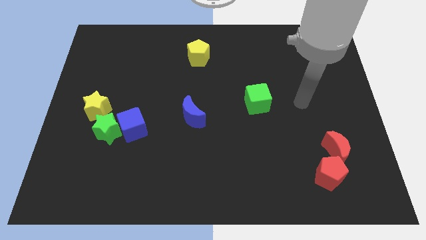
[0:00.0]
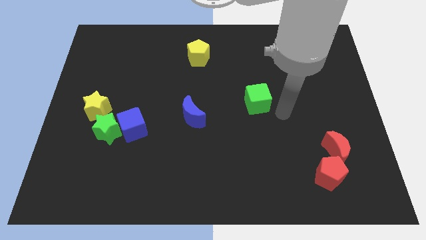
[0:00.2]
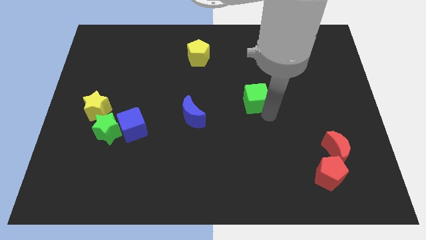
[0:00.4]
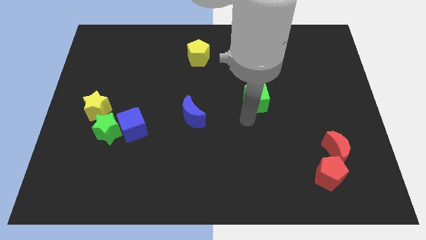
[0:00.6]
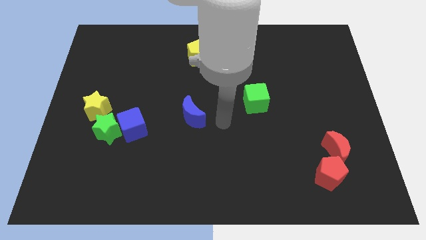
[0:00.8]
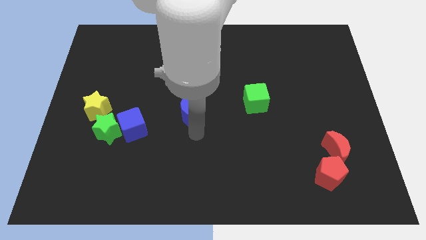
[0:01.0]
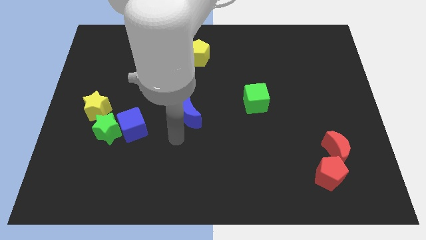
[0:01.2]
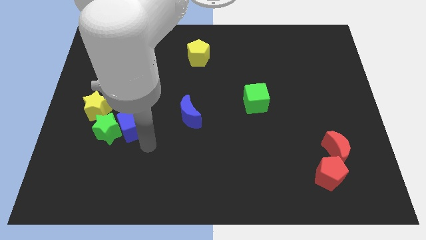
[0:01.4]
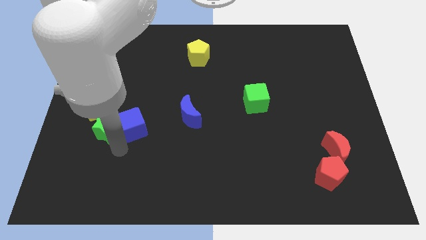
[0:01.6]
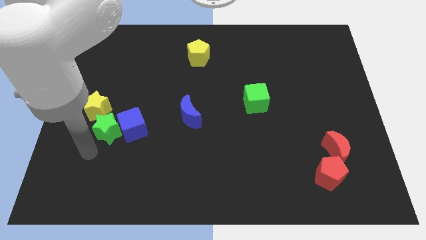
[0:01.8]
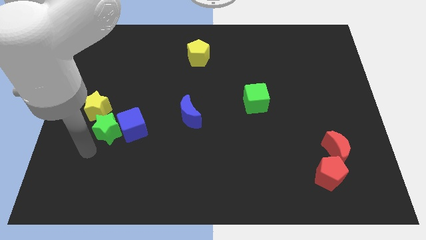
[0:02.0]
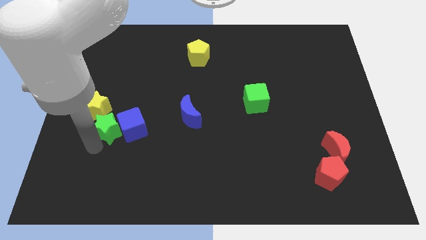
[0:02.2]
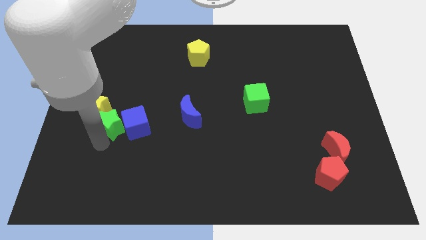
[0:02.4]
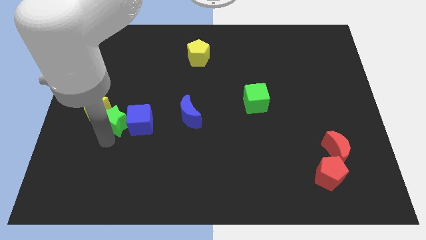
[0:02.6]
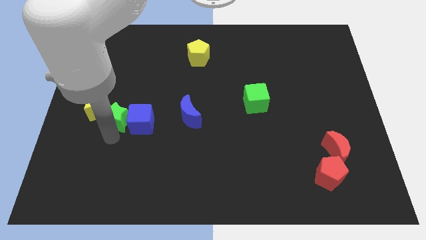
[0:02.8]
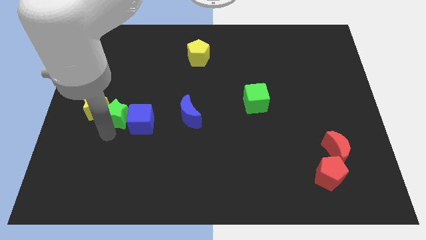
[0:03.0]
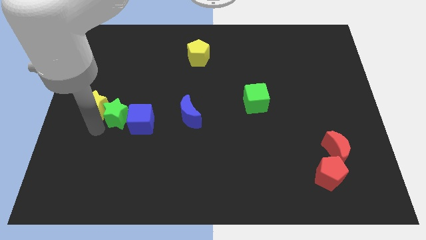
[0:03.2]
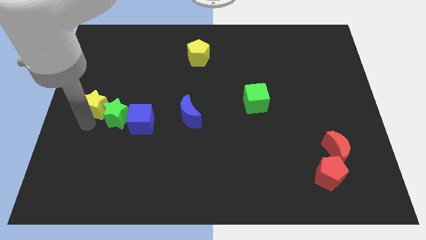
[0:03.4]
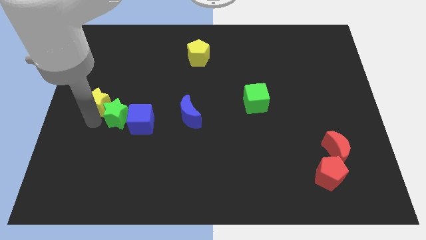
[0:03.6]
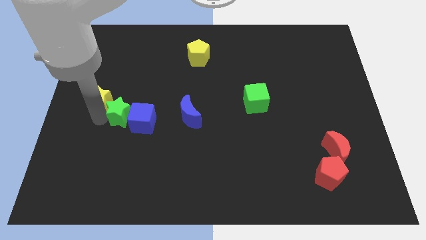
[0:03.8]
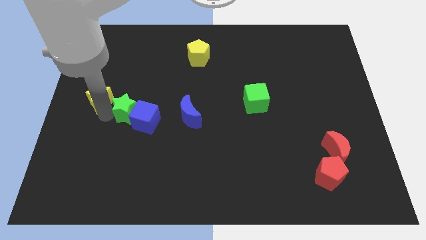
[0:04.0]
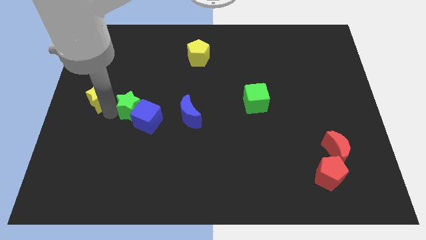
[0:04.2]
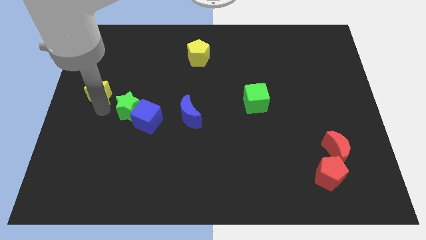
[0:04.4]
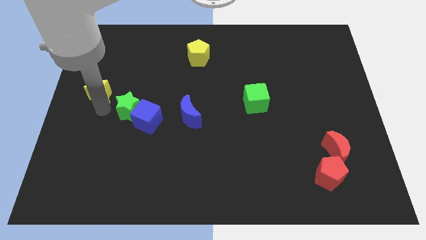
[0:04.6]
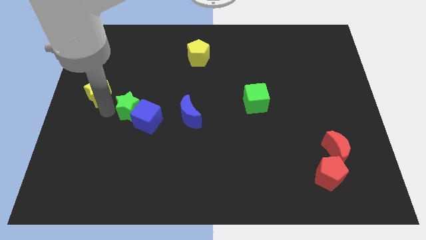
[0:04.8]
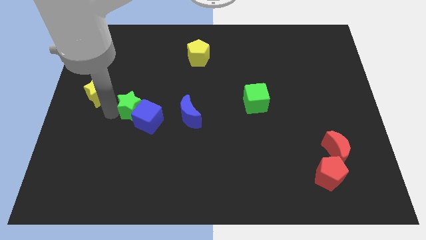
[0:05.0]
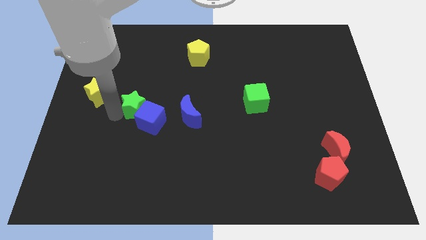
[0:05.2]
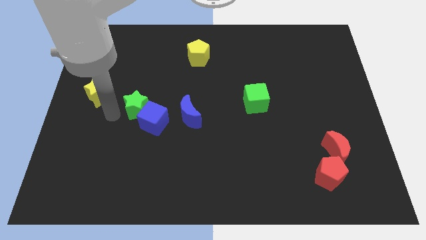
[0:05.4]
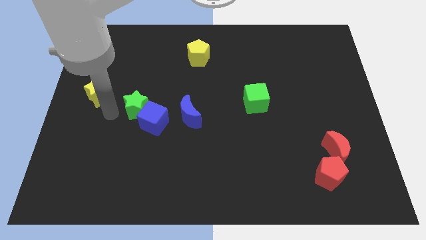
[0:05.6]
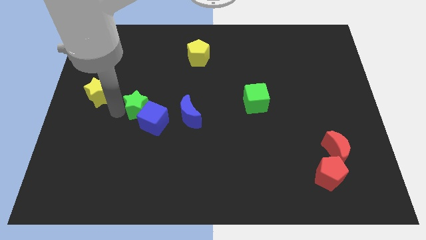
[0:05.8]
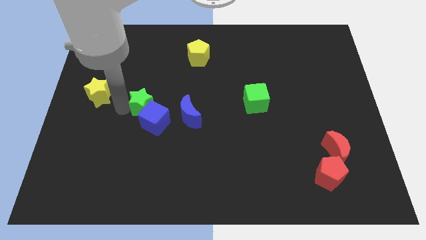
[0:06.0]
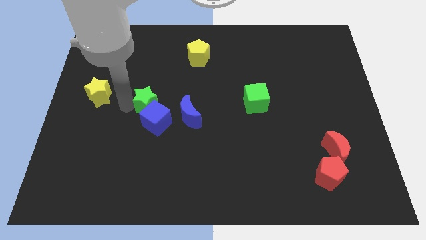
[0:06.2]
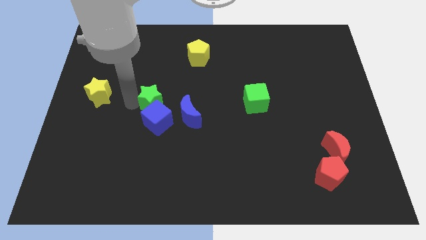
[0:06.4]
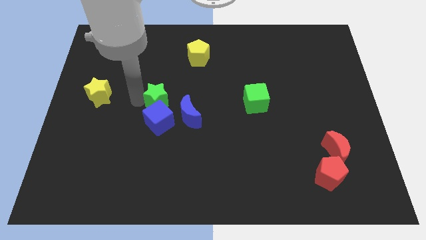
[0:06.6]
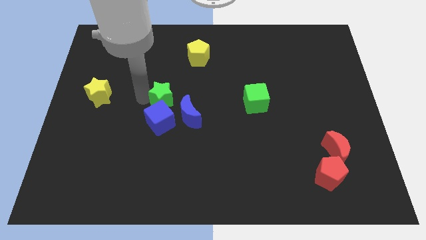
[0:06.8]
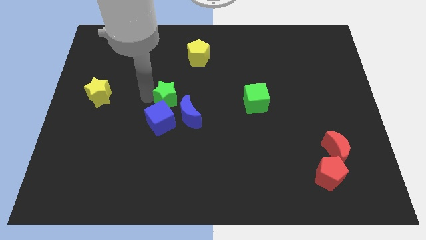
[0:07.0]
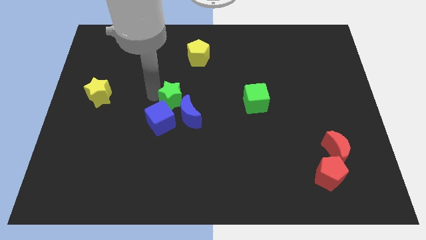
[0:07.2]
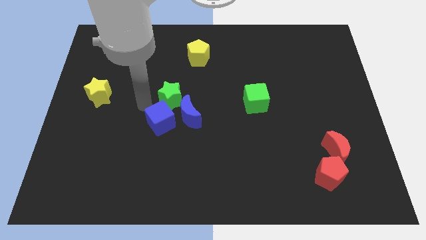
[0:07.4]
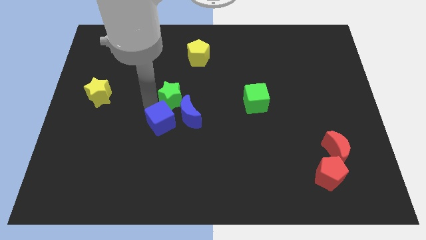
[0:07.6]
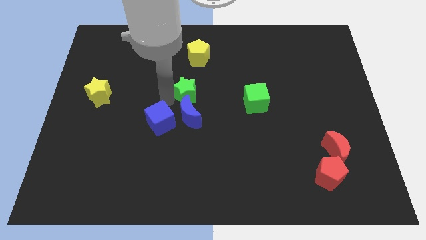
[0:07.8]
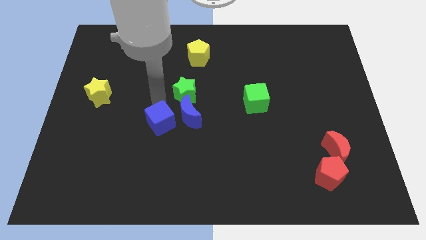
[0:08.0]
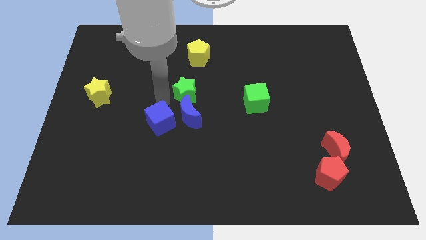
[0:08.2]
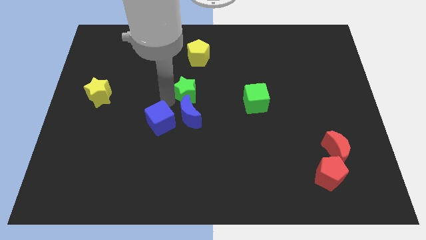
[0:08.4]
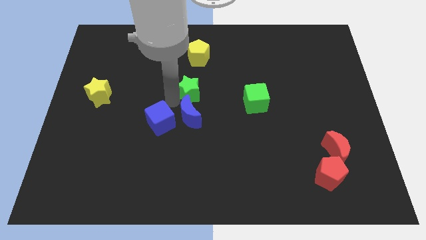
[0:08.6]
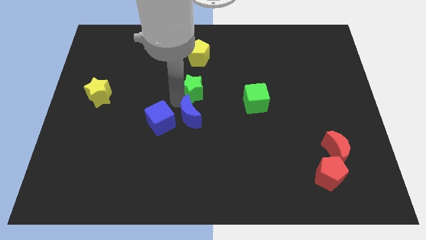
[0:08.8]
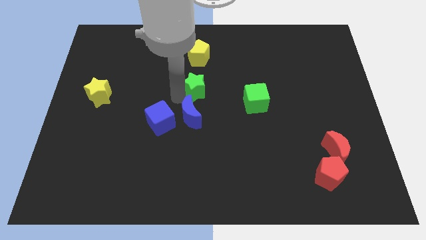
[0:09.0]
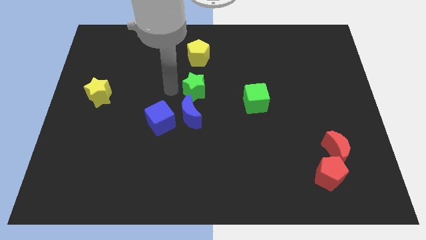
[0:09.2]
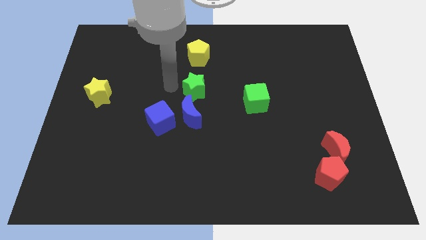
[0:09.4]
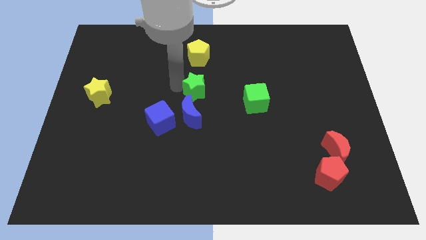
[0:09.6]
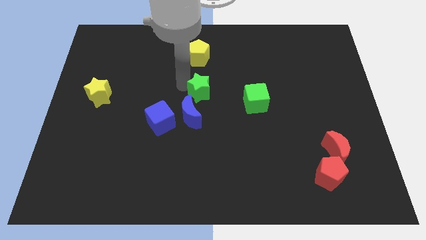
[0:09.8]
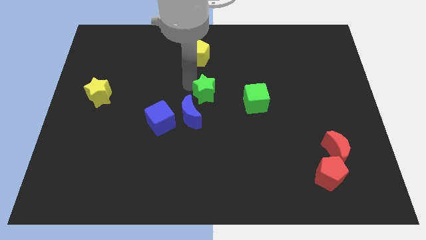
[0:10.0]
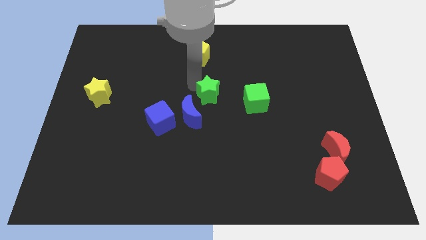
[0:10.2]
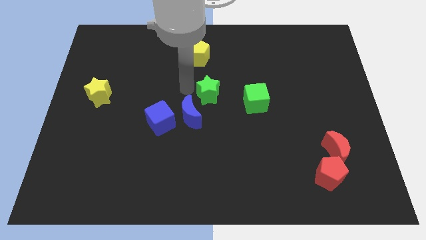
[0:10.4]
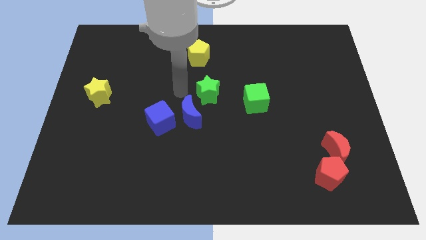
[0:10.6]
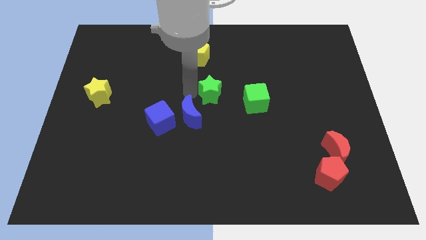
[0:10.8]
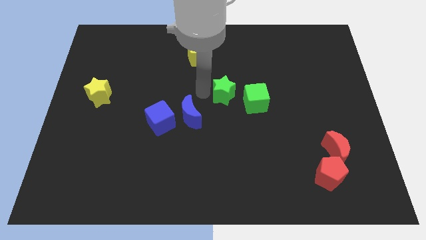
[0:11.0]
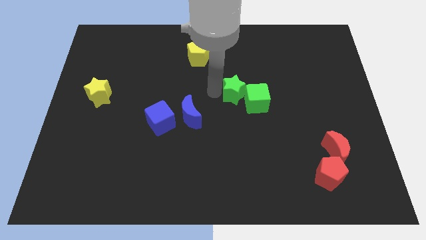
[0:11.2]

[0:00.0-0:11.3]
push the green star next to the green cube

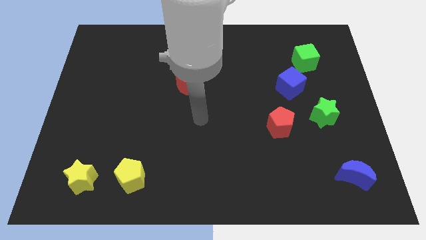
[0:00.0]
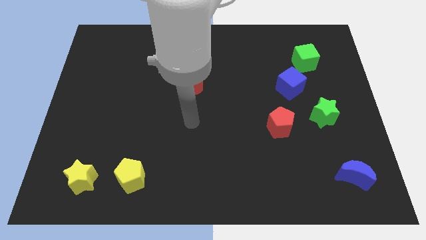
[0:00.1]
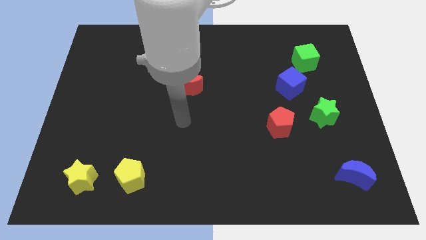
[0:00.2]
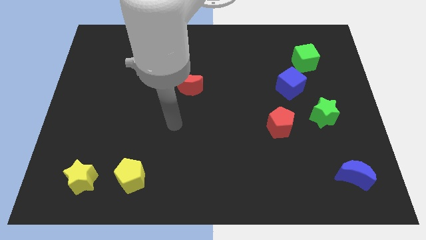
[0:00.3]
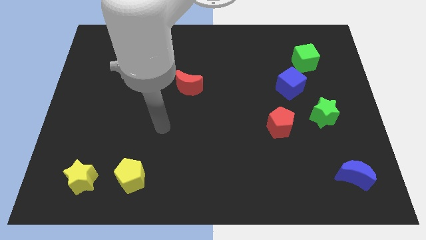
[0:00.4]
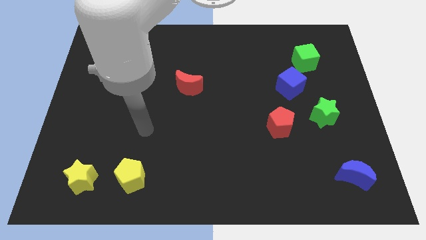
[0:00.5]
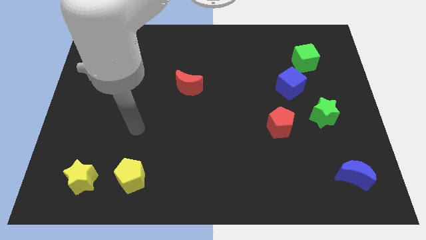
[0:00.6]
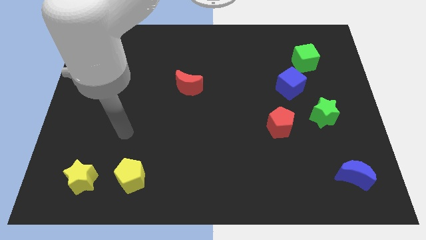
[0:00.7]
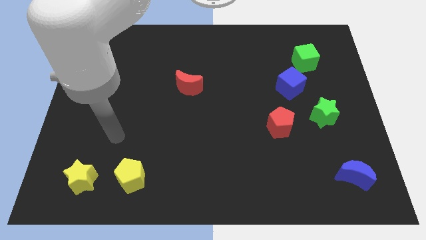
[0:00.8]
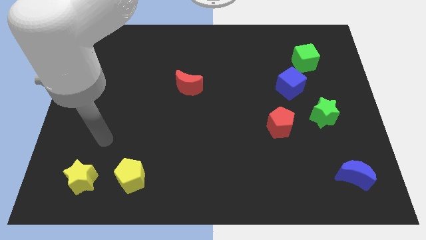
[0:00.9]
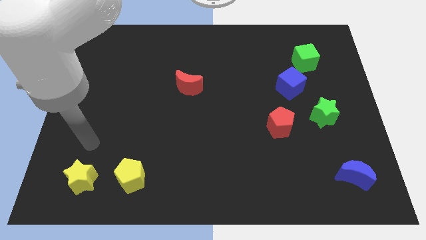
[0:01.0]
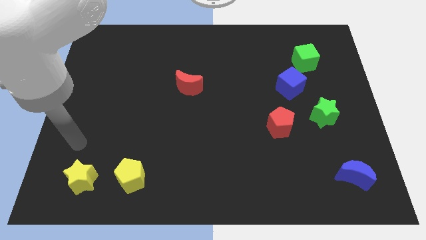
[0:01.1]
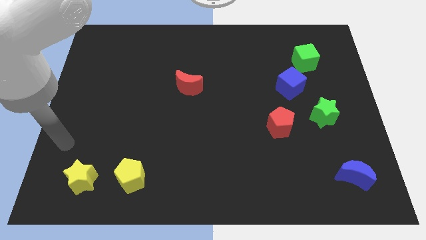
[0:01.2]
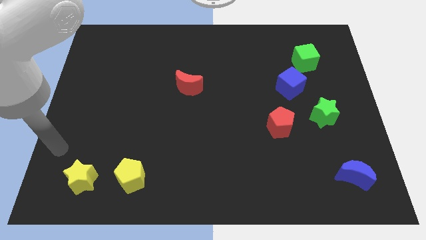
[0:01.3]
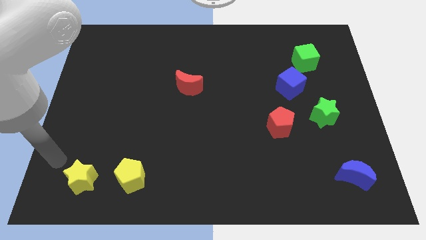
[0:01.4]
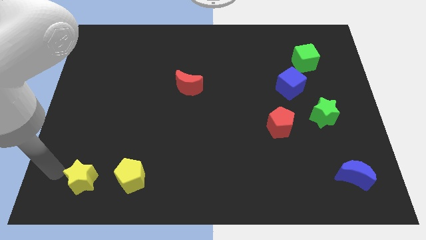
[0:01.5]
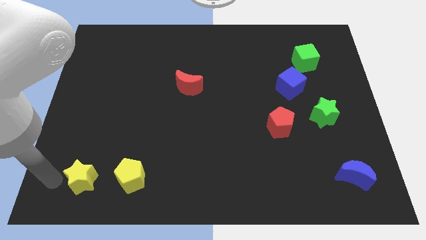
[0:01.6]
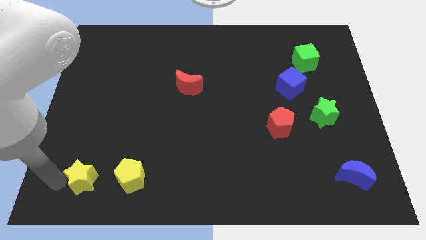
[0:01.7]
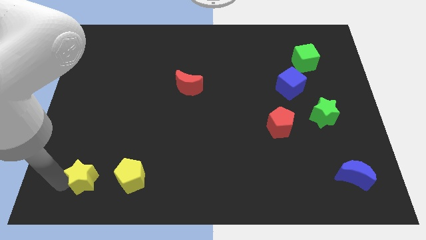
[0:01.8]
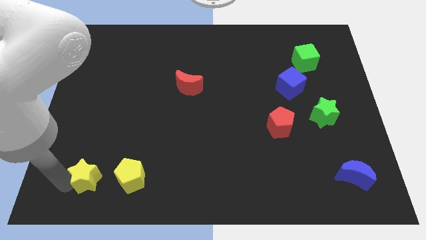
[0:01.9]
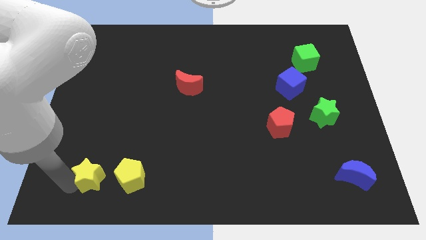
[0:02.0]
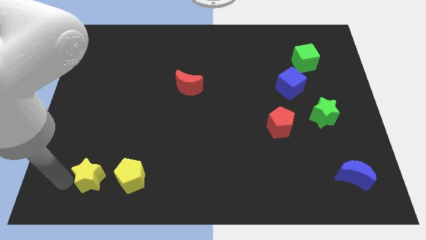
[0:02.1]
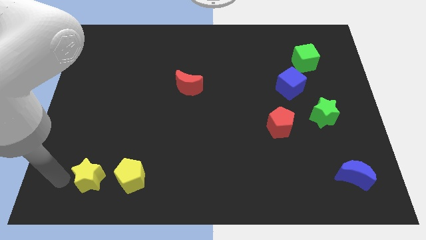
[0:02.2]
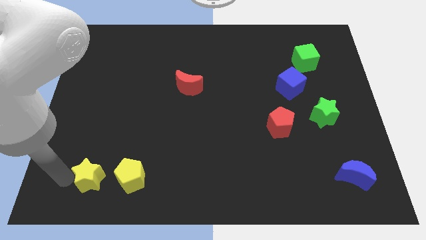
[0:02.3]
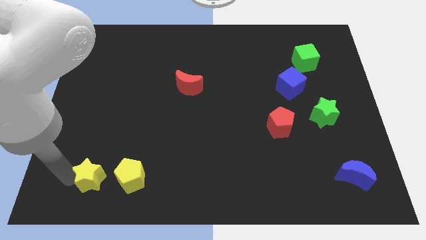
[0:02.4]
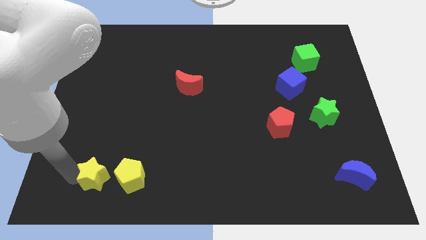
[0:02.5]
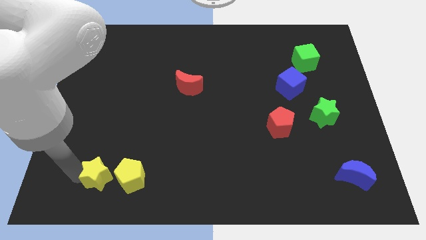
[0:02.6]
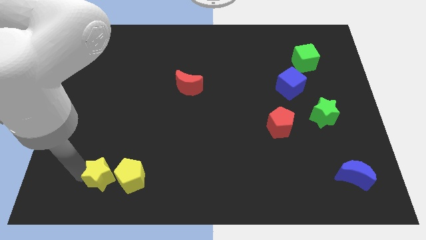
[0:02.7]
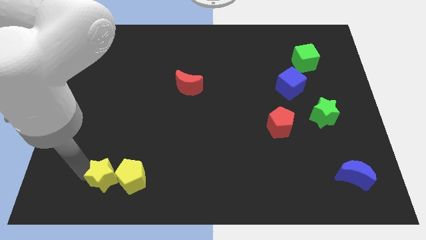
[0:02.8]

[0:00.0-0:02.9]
put the yellow star towards the yellow pentagon
